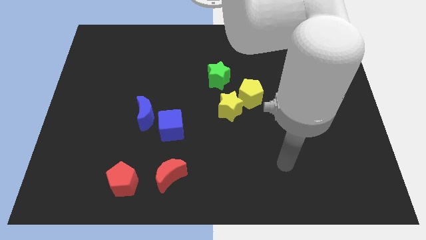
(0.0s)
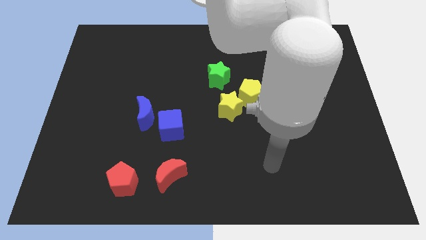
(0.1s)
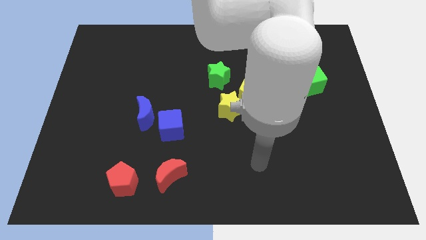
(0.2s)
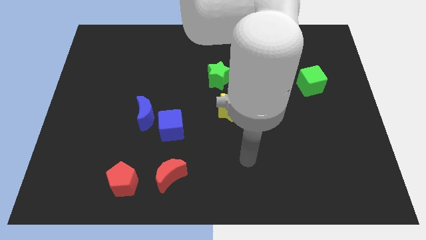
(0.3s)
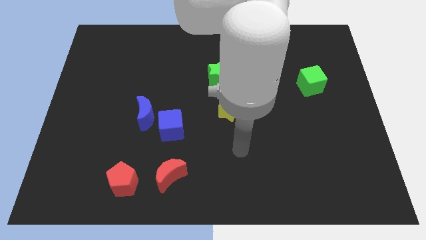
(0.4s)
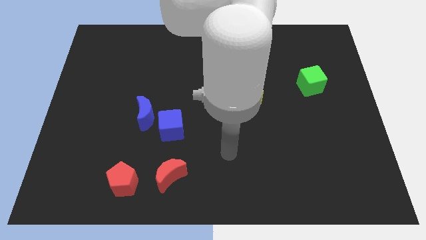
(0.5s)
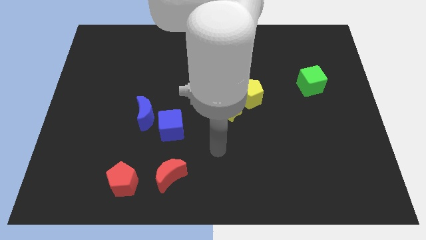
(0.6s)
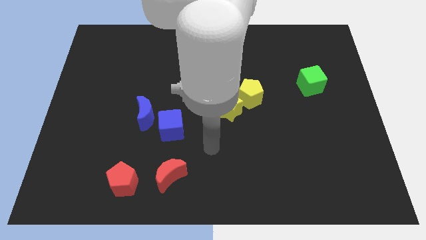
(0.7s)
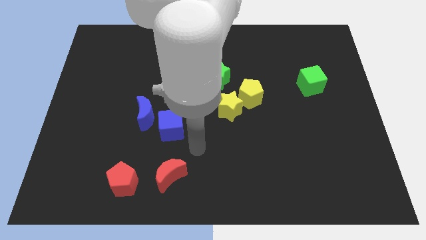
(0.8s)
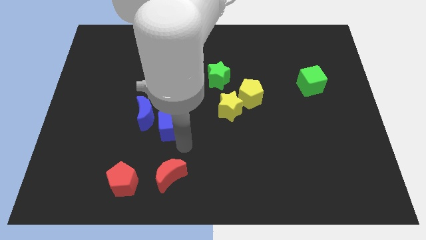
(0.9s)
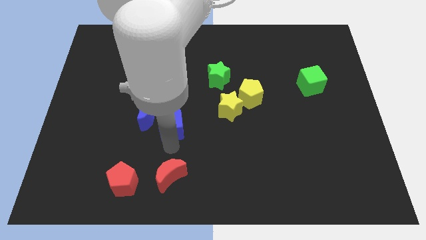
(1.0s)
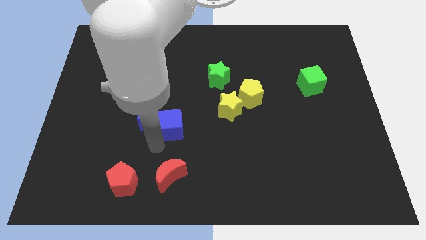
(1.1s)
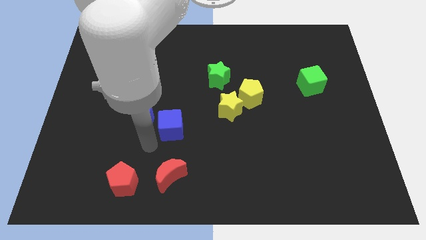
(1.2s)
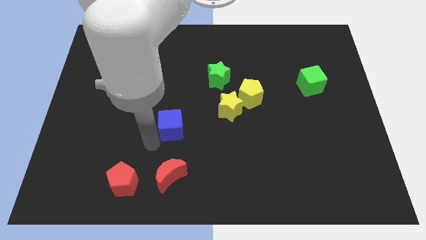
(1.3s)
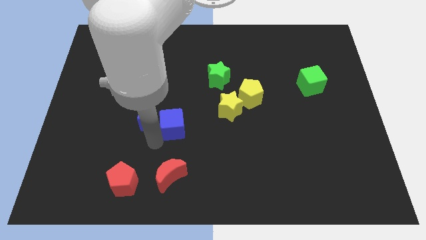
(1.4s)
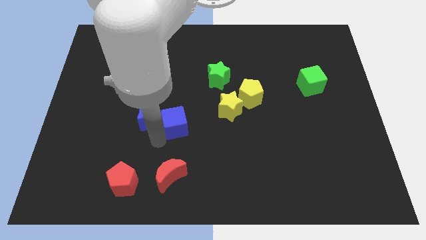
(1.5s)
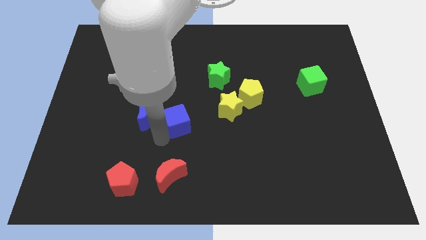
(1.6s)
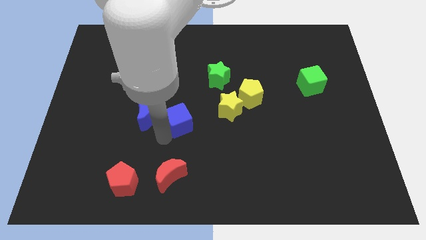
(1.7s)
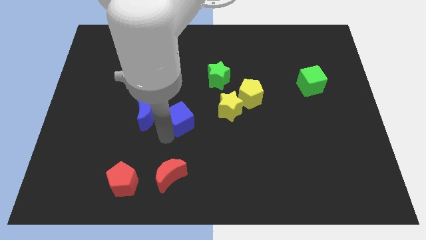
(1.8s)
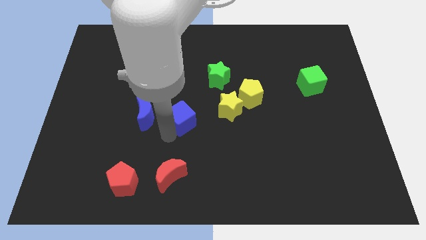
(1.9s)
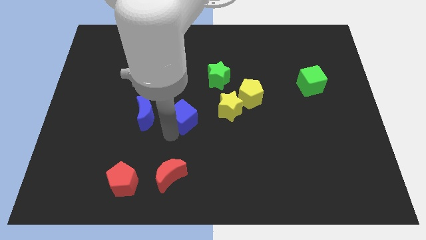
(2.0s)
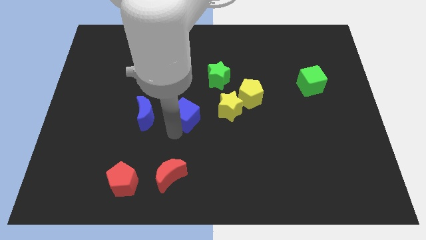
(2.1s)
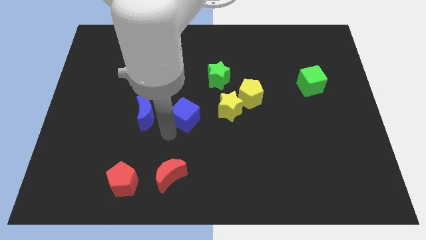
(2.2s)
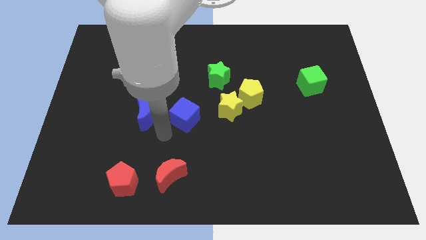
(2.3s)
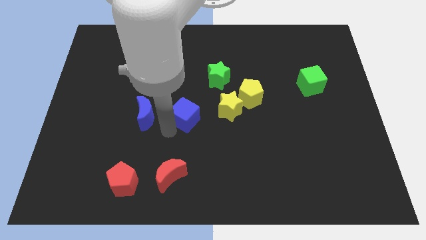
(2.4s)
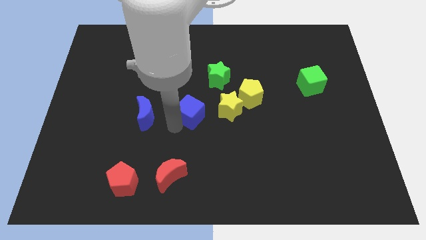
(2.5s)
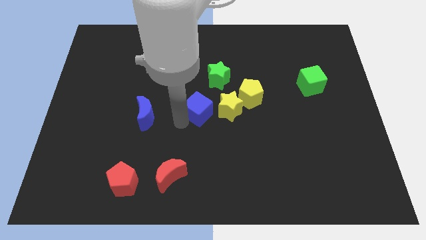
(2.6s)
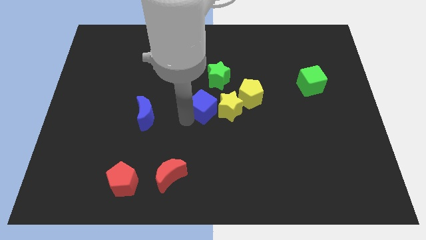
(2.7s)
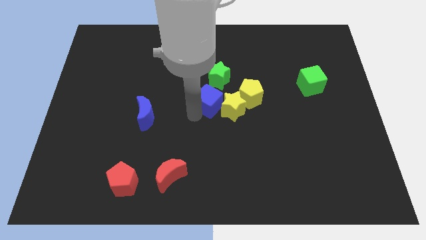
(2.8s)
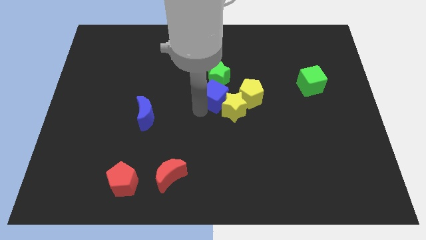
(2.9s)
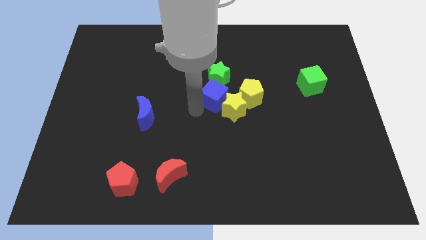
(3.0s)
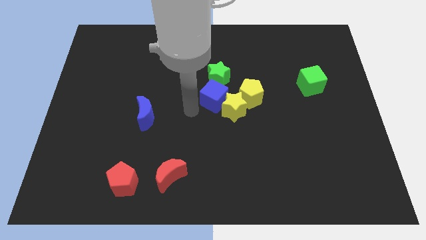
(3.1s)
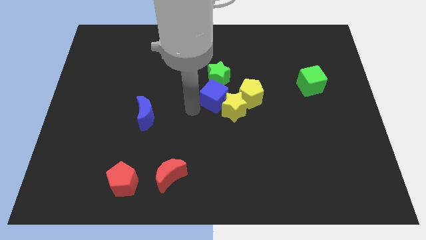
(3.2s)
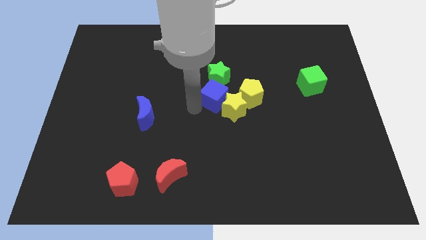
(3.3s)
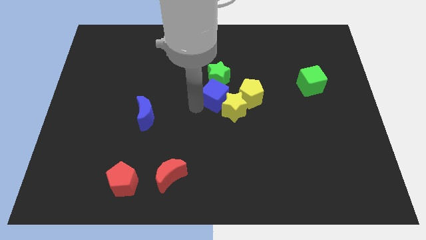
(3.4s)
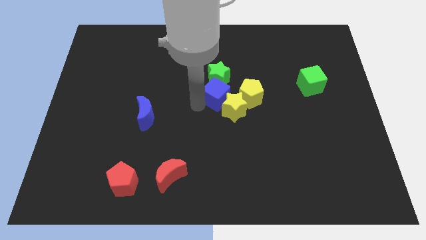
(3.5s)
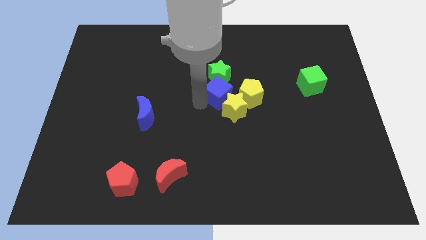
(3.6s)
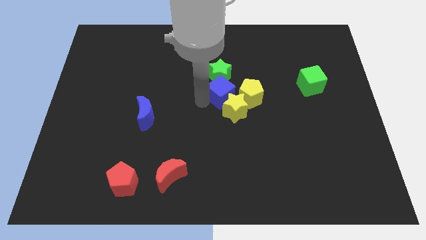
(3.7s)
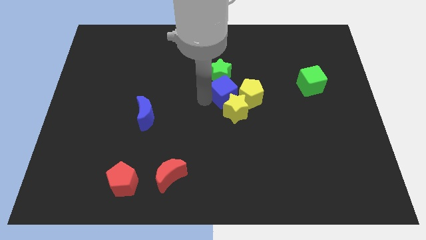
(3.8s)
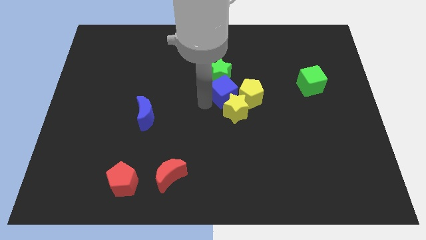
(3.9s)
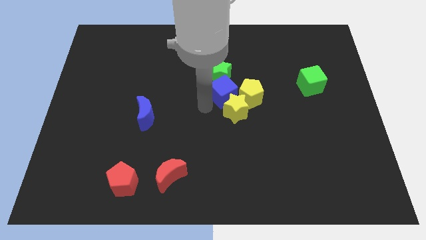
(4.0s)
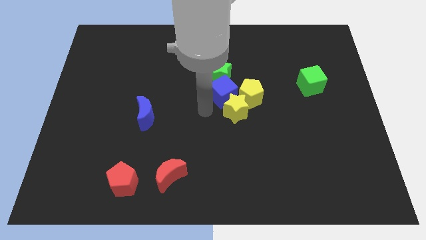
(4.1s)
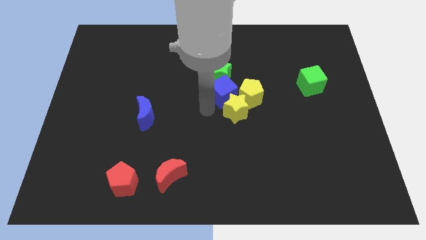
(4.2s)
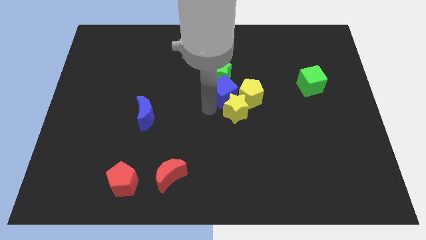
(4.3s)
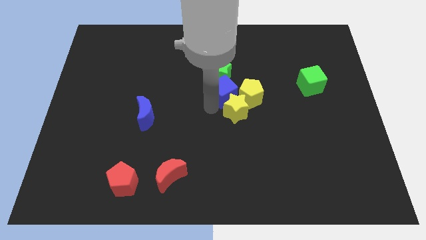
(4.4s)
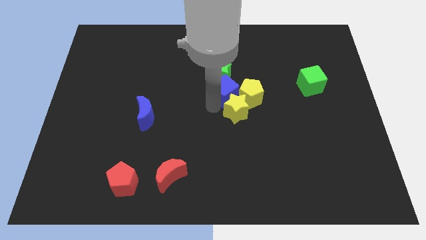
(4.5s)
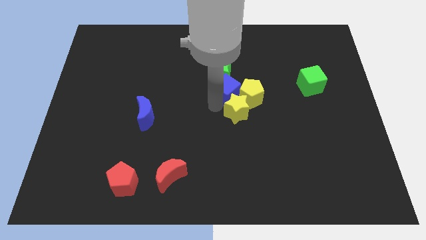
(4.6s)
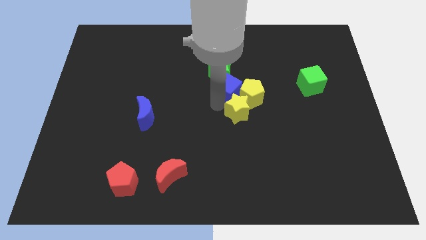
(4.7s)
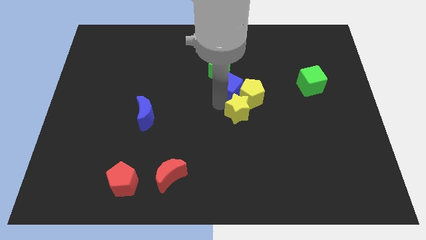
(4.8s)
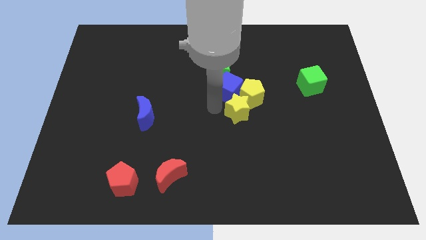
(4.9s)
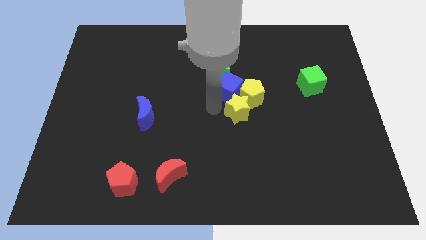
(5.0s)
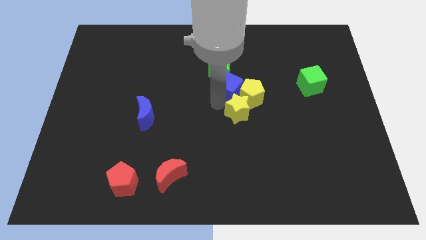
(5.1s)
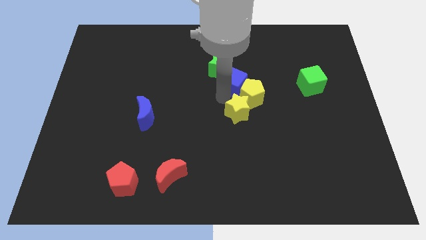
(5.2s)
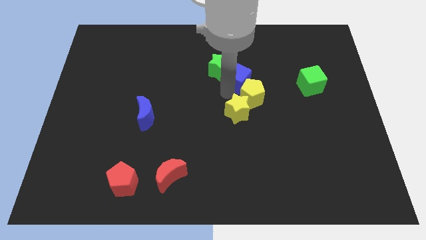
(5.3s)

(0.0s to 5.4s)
slide the blue cube up and to the right diagonally

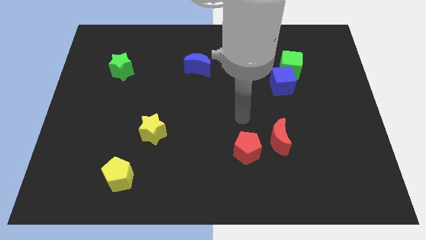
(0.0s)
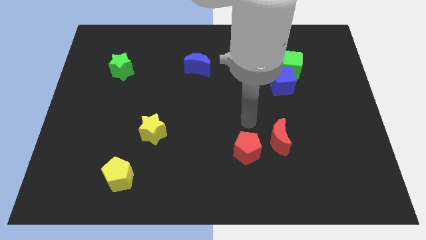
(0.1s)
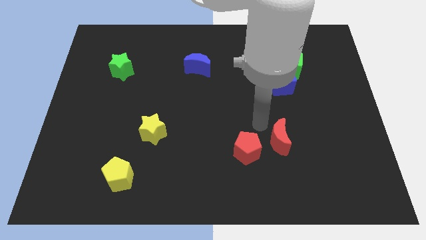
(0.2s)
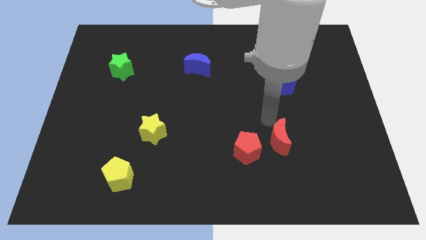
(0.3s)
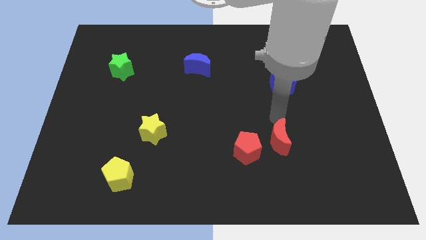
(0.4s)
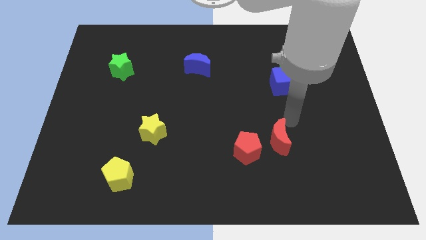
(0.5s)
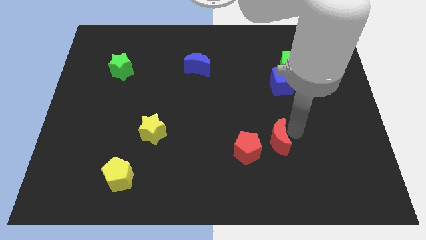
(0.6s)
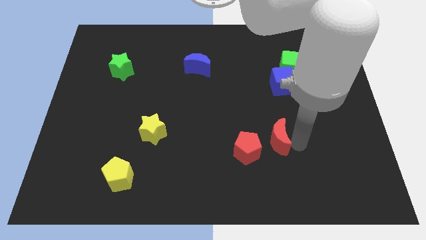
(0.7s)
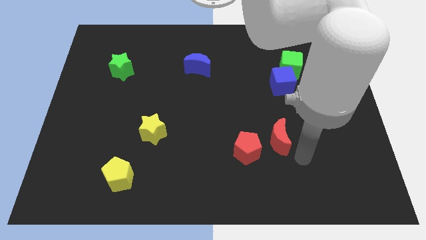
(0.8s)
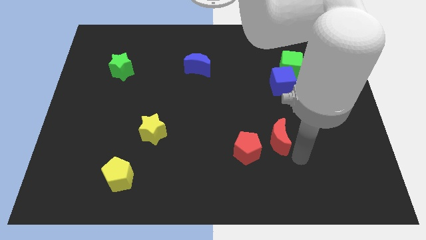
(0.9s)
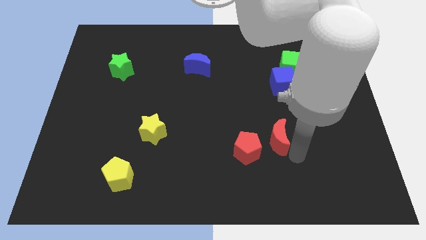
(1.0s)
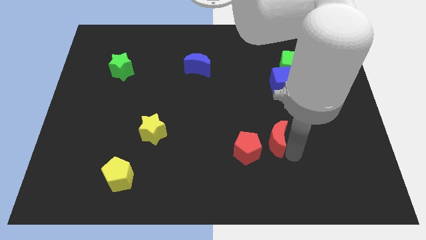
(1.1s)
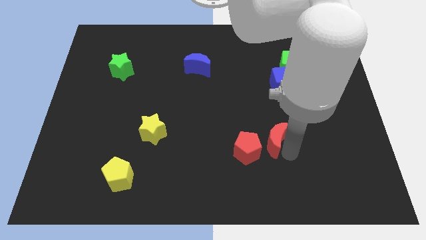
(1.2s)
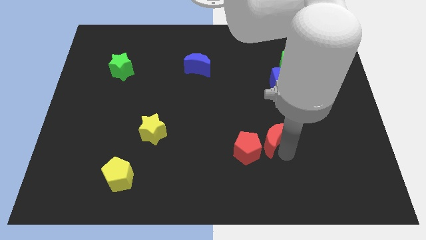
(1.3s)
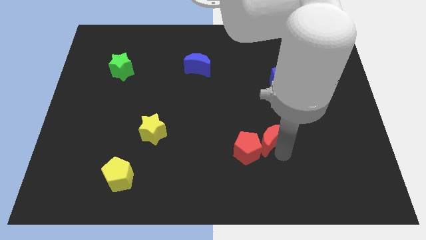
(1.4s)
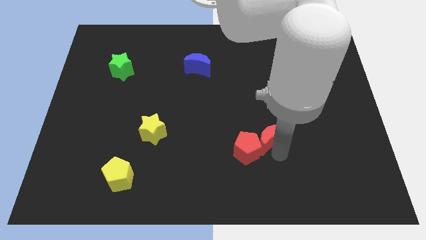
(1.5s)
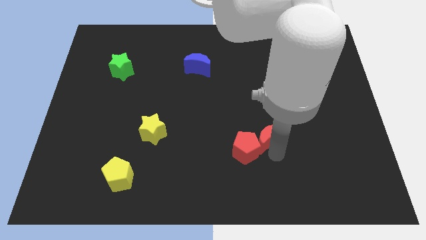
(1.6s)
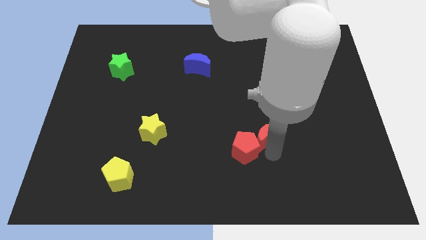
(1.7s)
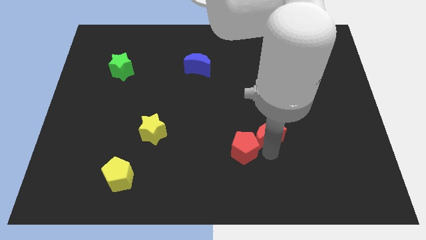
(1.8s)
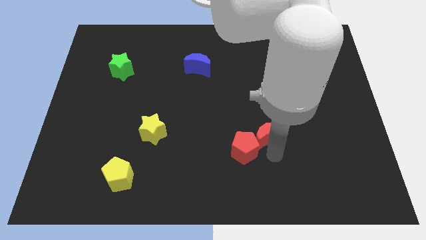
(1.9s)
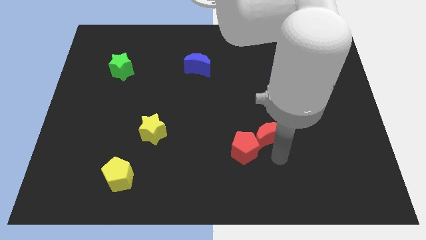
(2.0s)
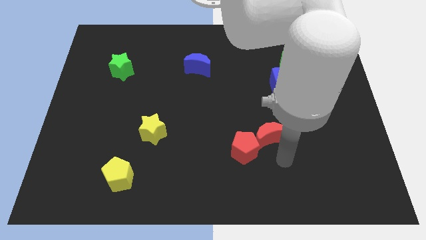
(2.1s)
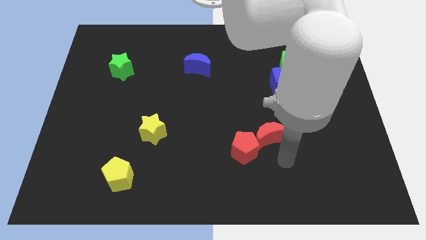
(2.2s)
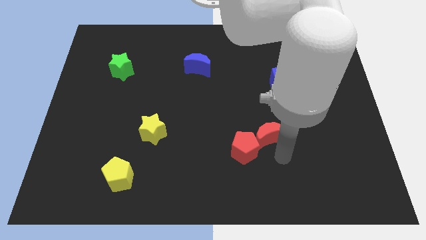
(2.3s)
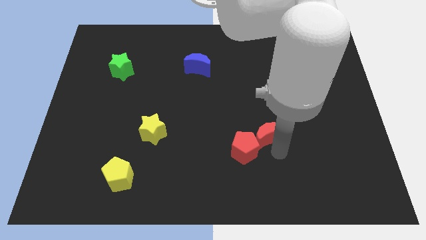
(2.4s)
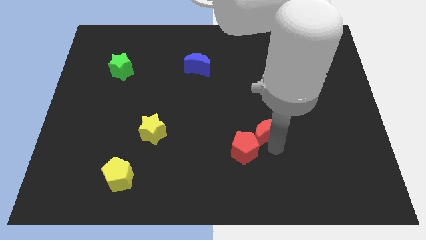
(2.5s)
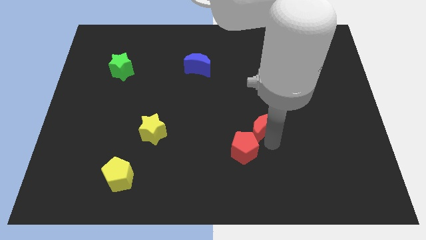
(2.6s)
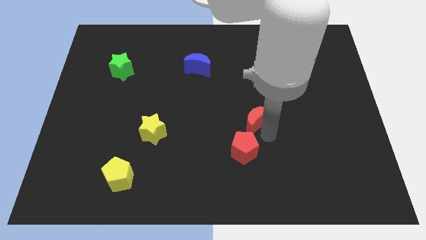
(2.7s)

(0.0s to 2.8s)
move the red moon slightly up and then left
